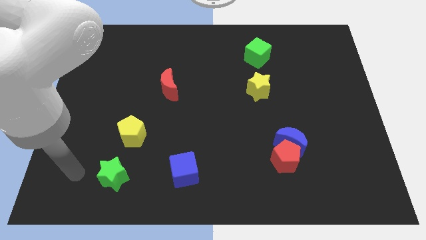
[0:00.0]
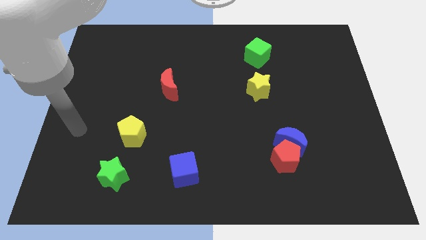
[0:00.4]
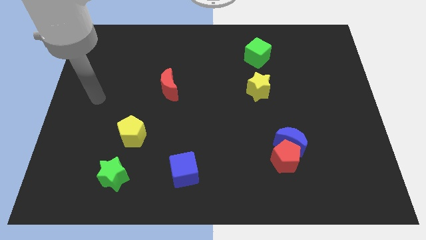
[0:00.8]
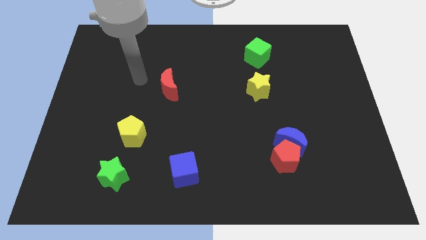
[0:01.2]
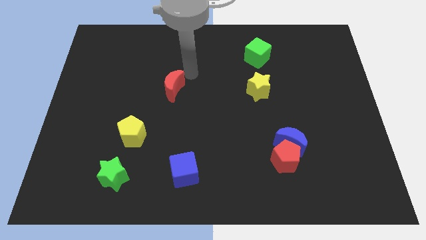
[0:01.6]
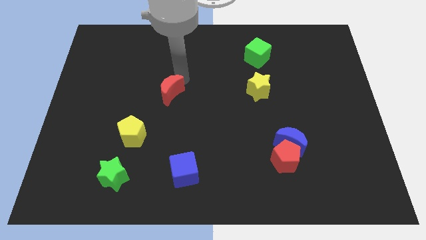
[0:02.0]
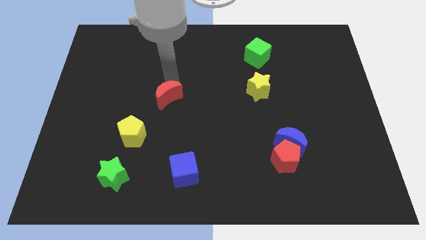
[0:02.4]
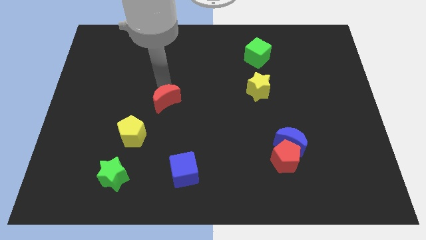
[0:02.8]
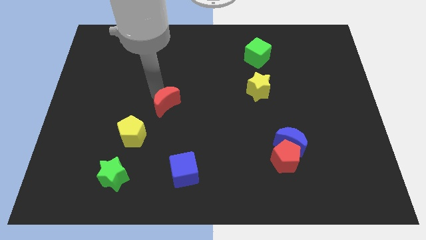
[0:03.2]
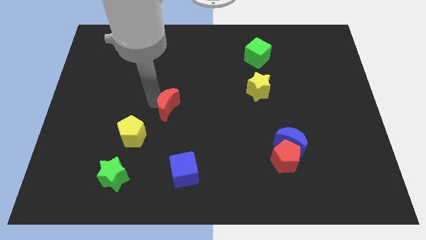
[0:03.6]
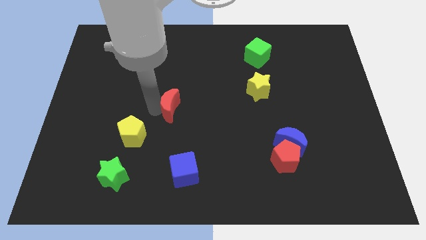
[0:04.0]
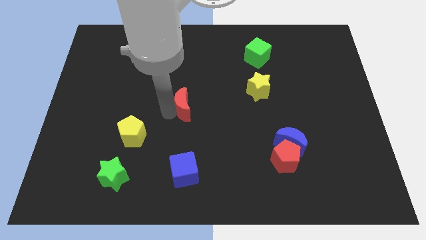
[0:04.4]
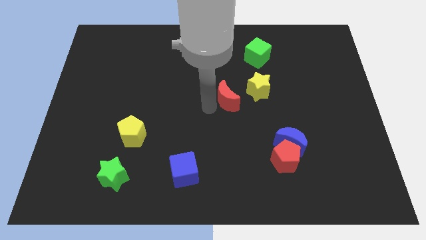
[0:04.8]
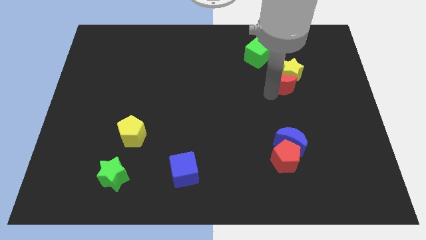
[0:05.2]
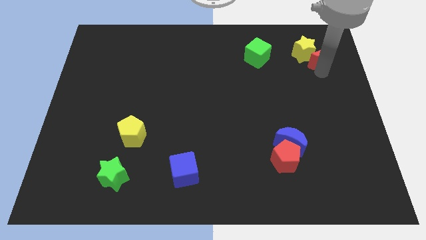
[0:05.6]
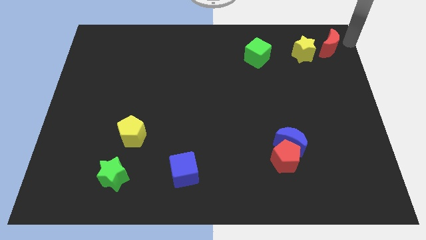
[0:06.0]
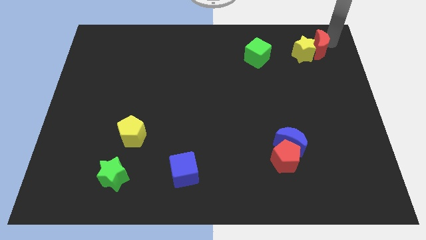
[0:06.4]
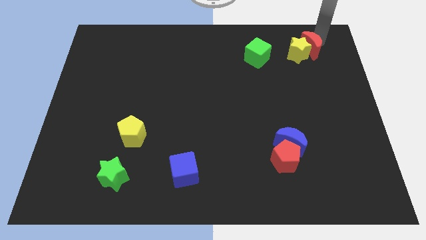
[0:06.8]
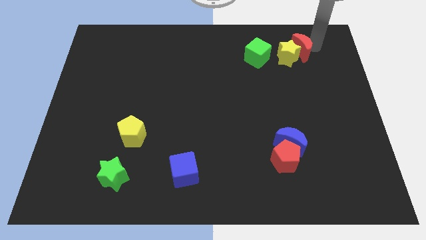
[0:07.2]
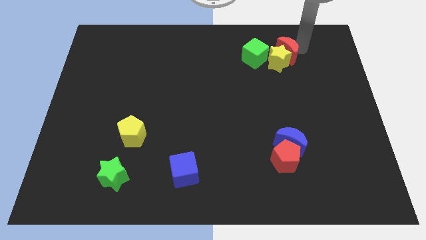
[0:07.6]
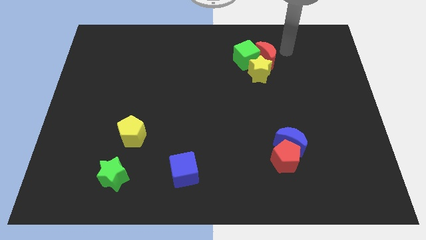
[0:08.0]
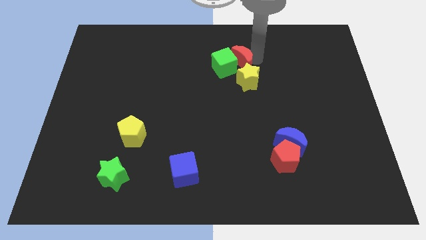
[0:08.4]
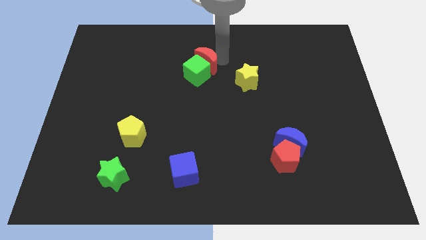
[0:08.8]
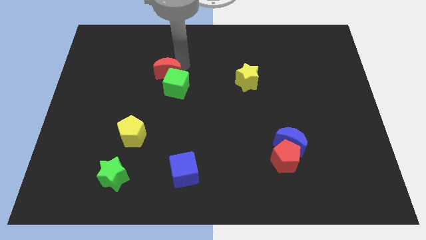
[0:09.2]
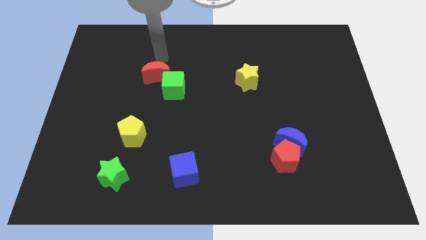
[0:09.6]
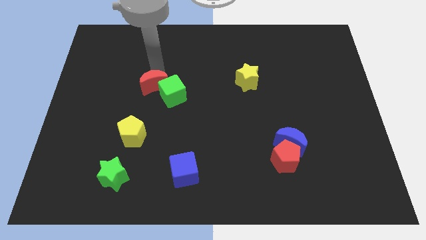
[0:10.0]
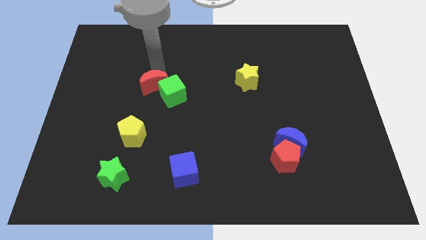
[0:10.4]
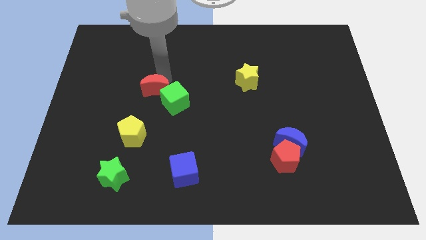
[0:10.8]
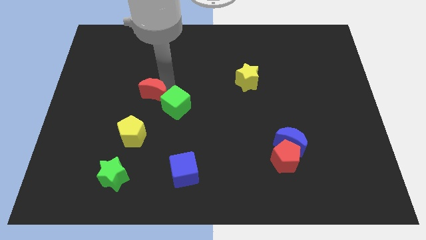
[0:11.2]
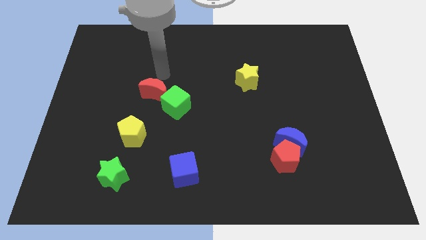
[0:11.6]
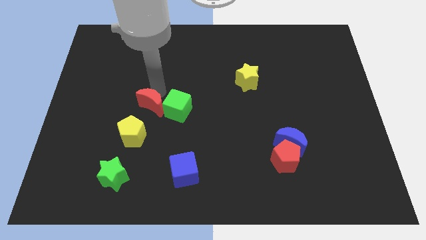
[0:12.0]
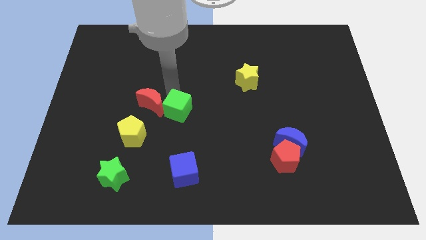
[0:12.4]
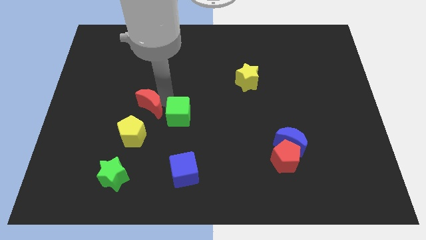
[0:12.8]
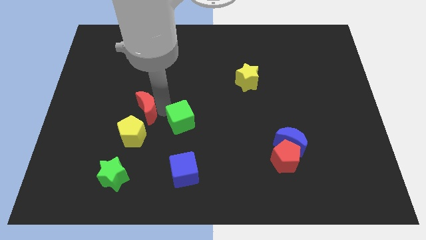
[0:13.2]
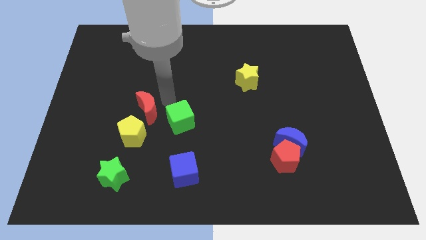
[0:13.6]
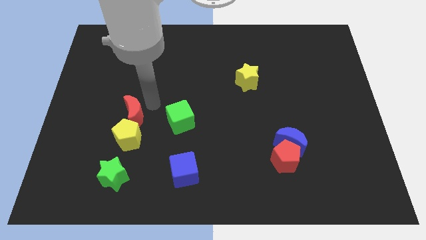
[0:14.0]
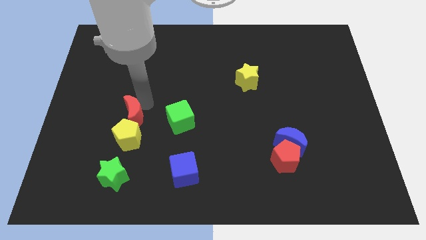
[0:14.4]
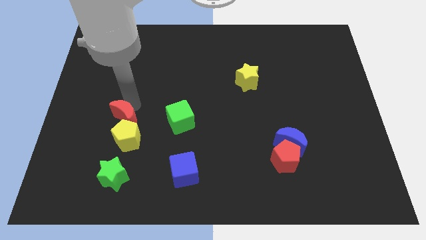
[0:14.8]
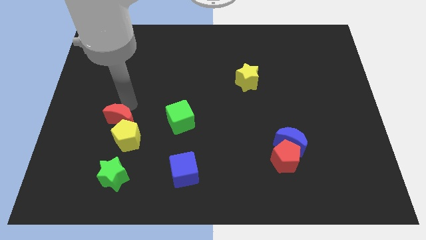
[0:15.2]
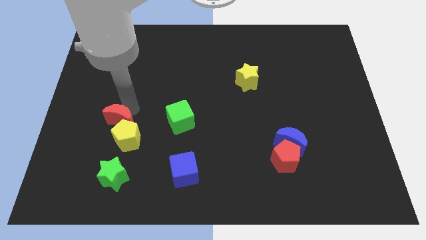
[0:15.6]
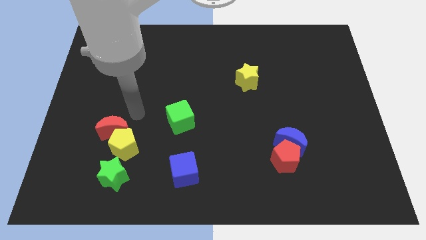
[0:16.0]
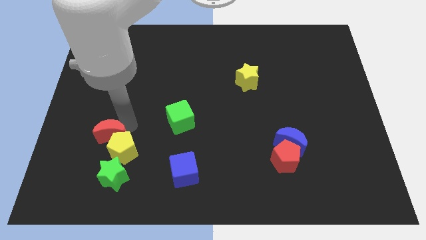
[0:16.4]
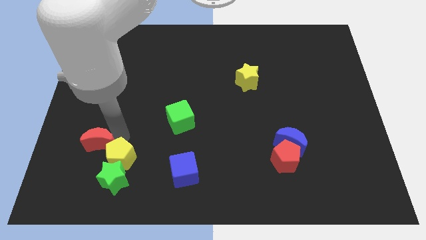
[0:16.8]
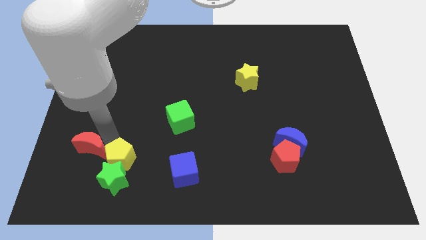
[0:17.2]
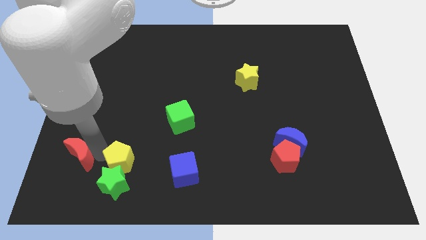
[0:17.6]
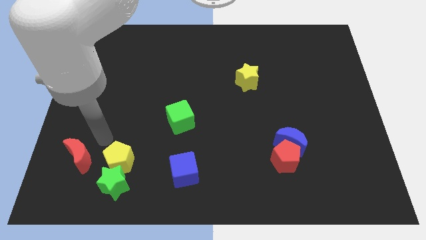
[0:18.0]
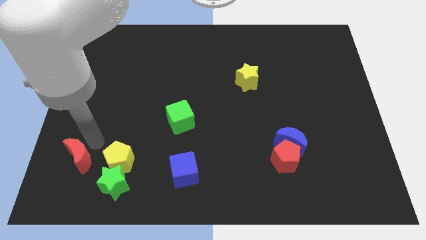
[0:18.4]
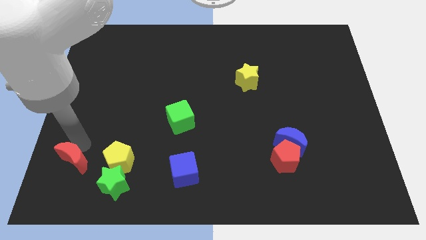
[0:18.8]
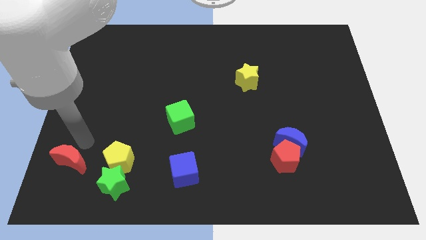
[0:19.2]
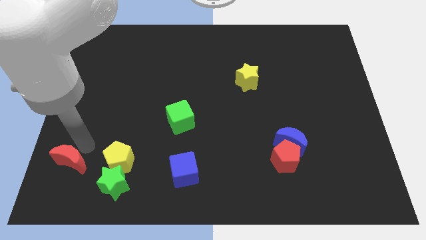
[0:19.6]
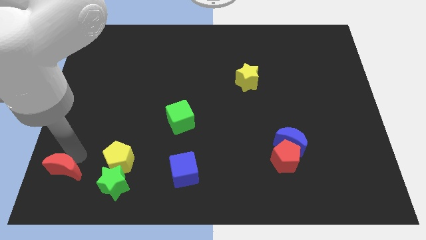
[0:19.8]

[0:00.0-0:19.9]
push the red moon to the bottom left of the board

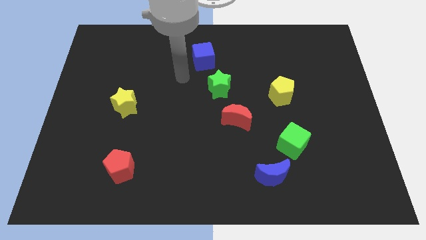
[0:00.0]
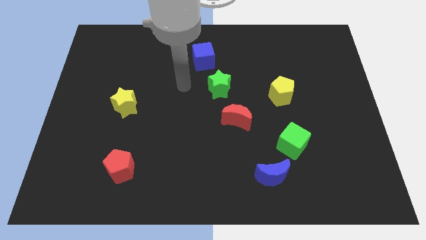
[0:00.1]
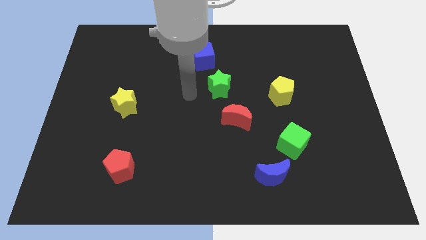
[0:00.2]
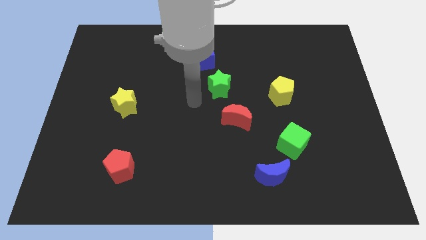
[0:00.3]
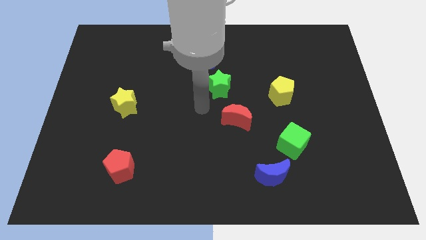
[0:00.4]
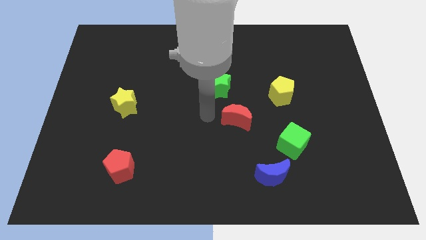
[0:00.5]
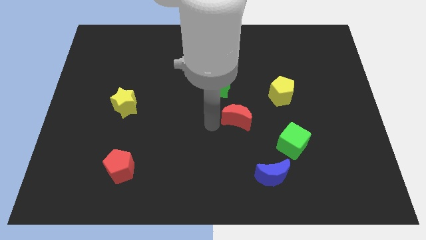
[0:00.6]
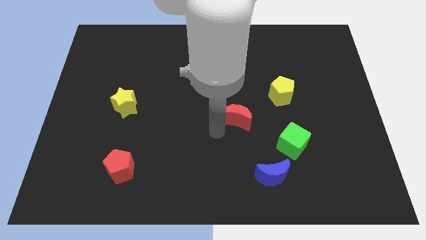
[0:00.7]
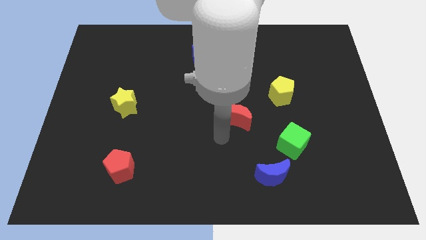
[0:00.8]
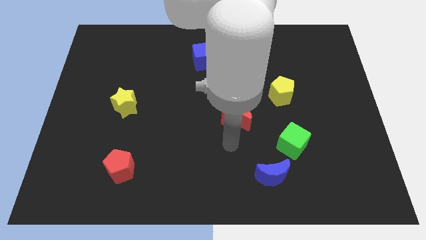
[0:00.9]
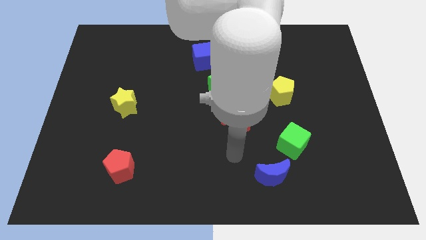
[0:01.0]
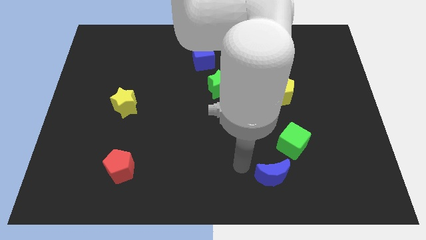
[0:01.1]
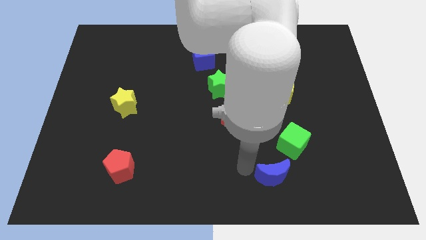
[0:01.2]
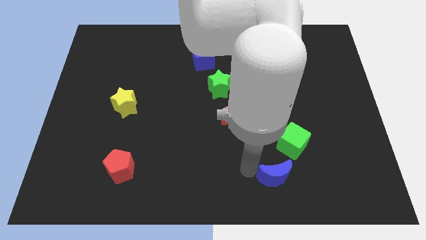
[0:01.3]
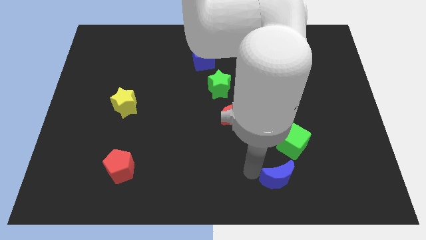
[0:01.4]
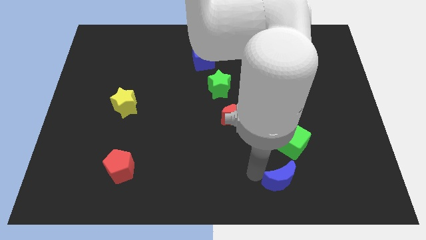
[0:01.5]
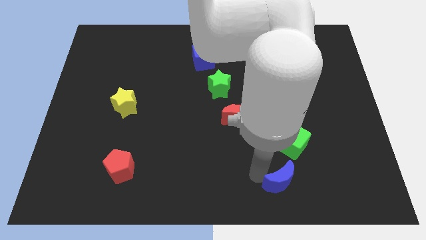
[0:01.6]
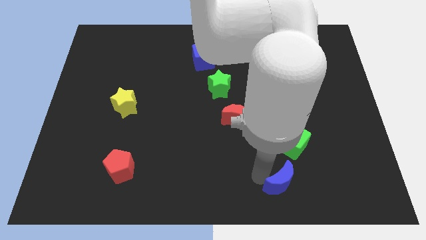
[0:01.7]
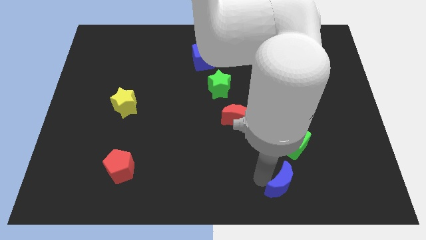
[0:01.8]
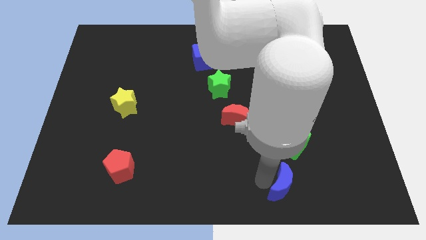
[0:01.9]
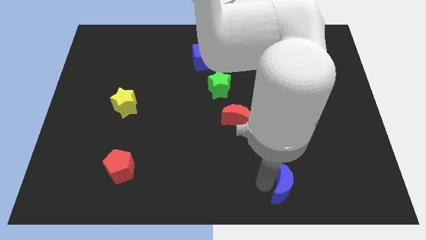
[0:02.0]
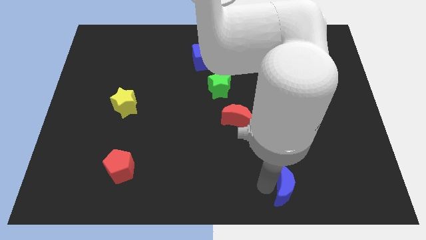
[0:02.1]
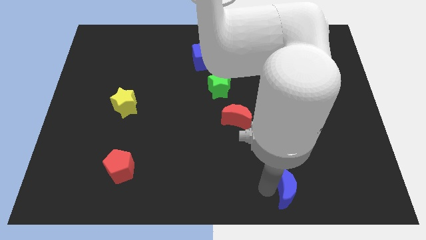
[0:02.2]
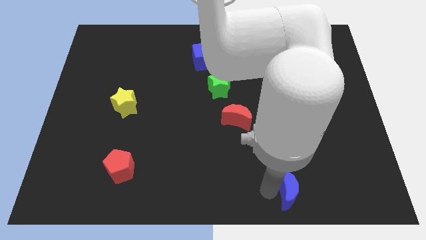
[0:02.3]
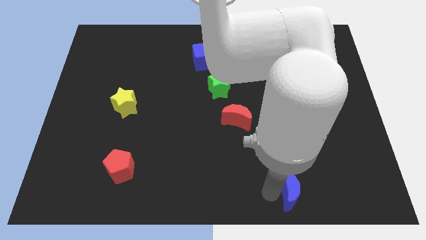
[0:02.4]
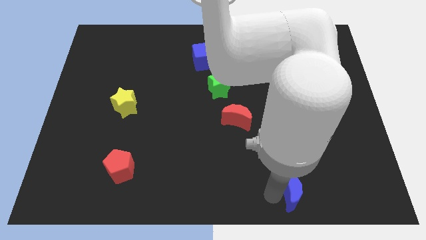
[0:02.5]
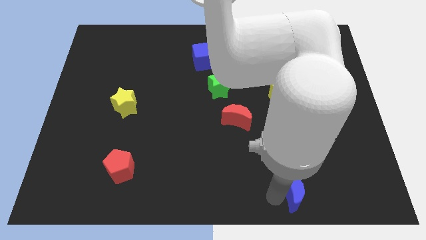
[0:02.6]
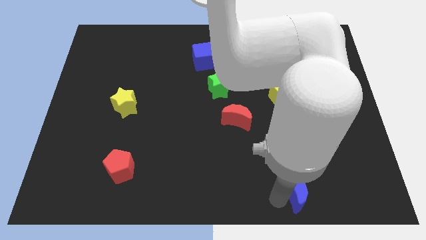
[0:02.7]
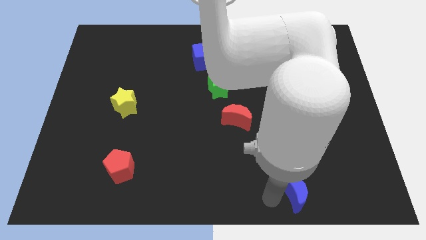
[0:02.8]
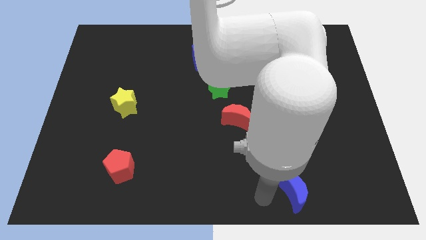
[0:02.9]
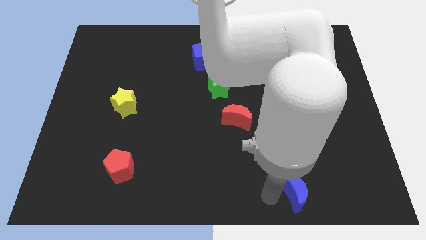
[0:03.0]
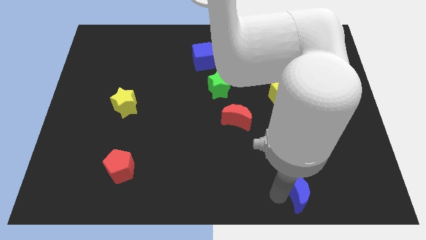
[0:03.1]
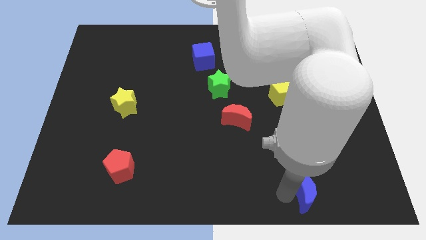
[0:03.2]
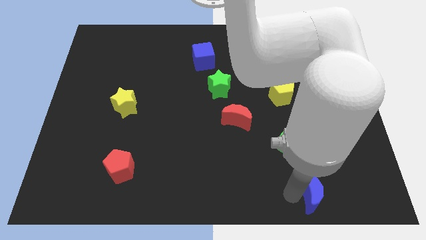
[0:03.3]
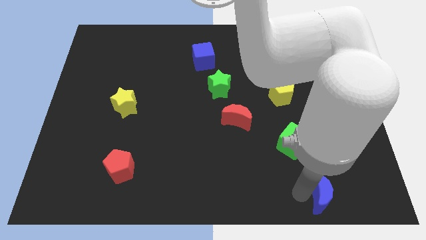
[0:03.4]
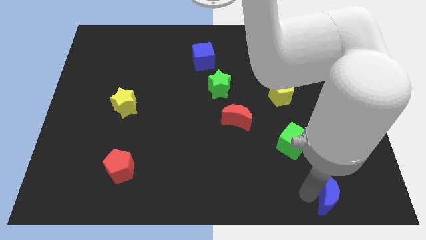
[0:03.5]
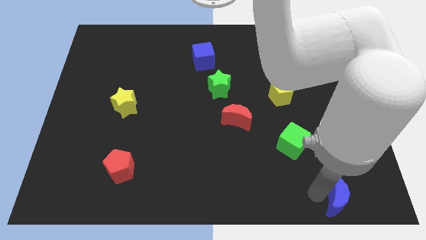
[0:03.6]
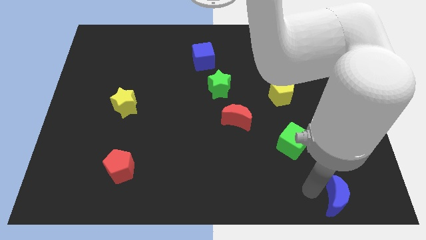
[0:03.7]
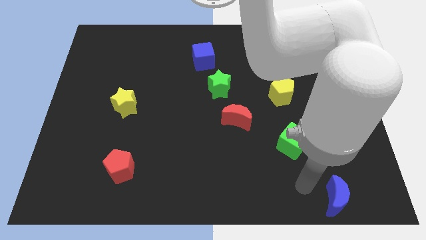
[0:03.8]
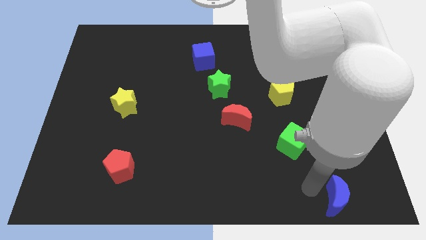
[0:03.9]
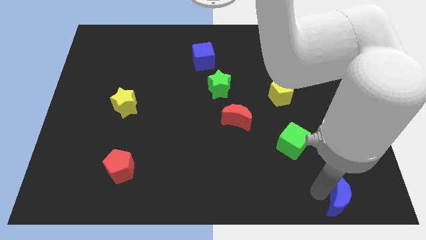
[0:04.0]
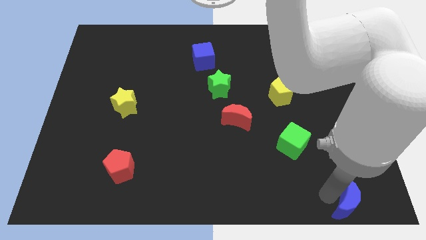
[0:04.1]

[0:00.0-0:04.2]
push the blue moon to the bottom right
